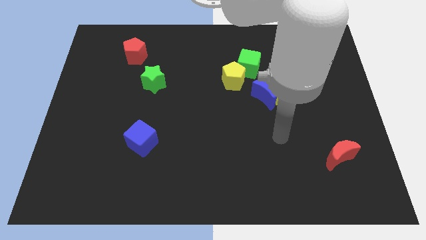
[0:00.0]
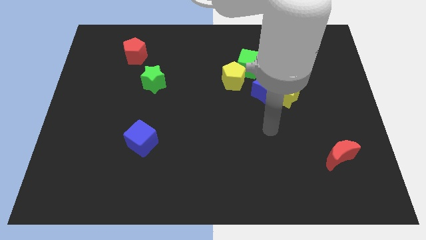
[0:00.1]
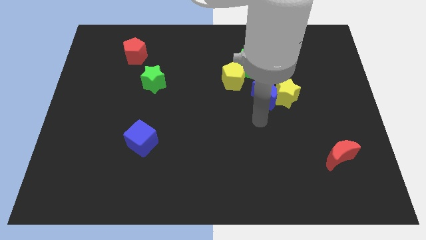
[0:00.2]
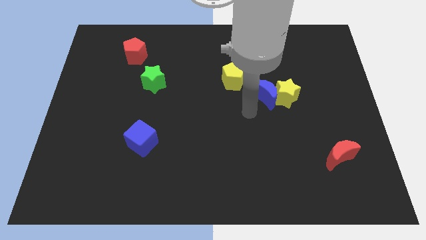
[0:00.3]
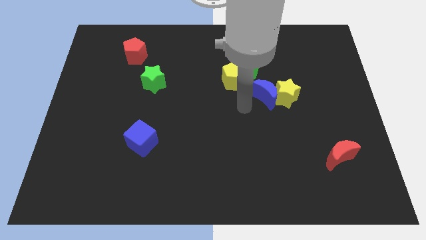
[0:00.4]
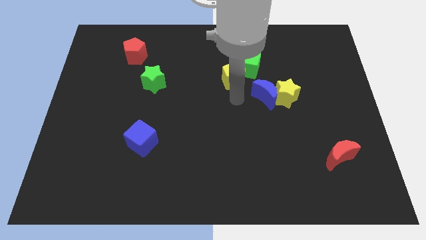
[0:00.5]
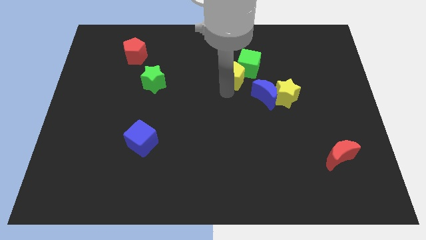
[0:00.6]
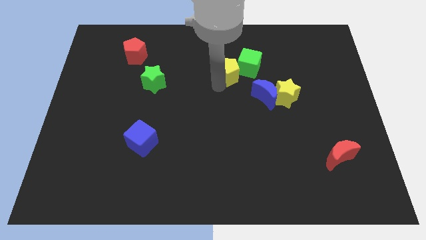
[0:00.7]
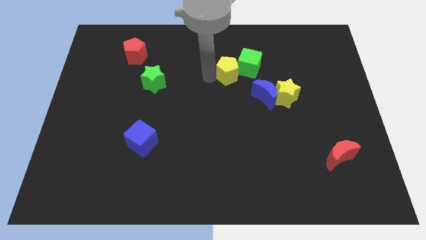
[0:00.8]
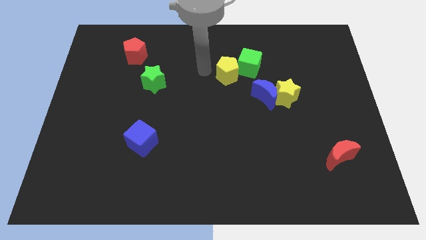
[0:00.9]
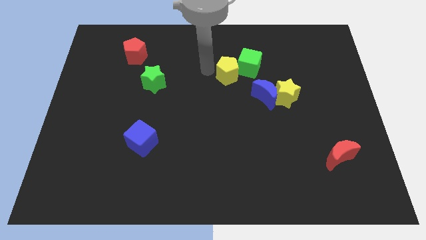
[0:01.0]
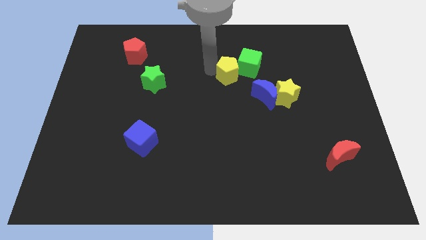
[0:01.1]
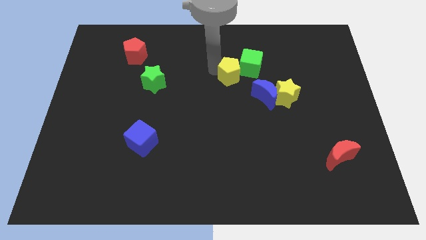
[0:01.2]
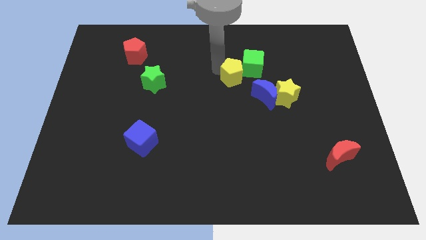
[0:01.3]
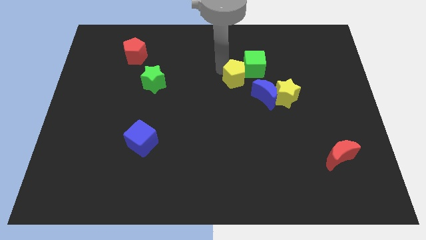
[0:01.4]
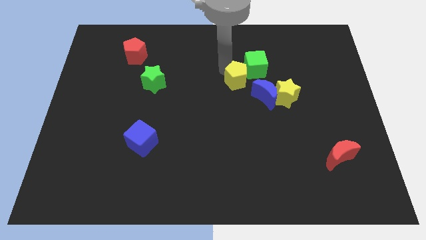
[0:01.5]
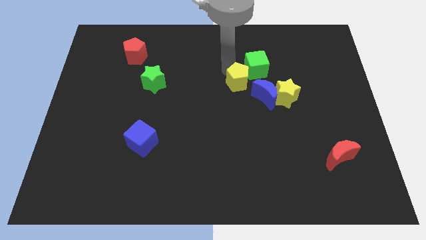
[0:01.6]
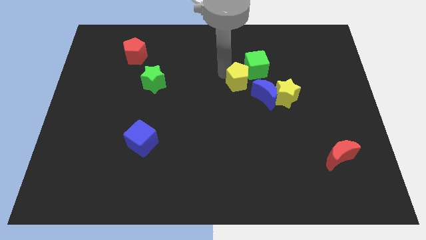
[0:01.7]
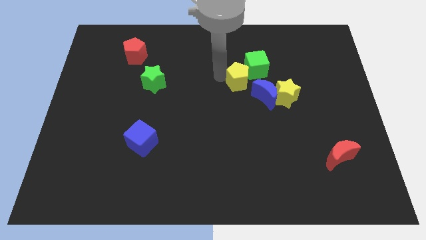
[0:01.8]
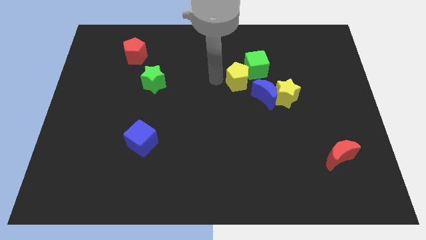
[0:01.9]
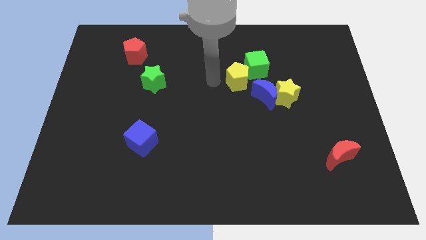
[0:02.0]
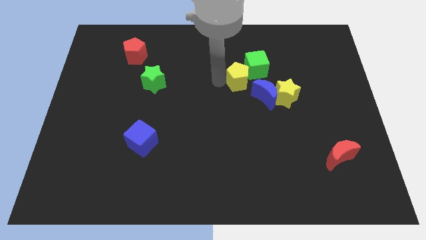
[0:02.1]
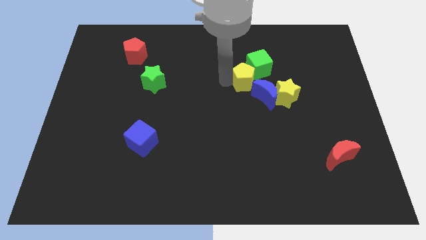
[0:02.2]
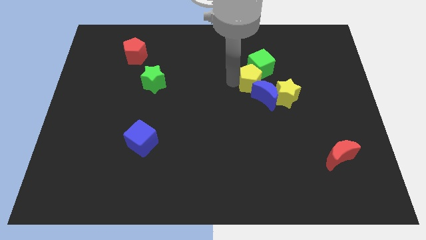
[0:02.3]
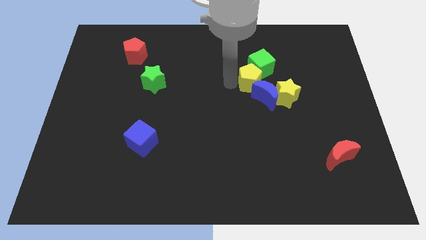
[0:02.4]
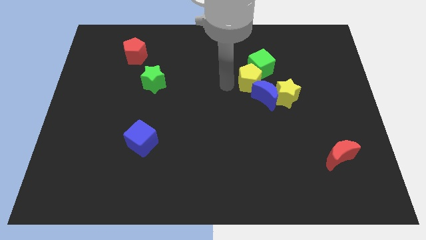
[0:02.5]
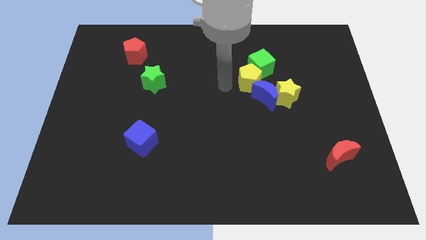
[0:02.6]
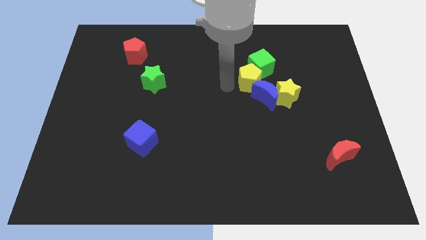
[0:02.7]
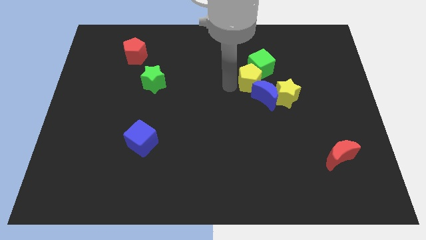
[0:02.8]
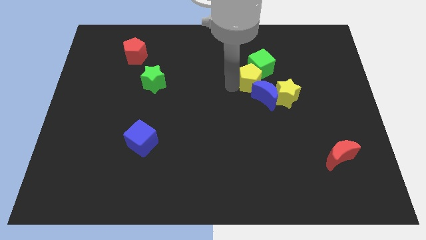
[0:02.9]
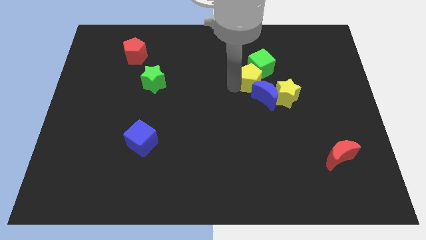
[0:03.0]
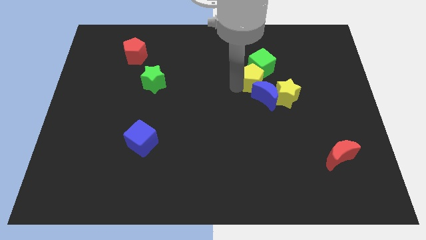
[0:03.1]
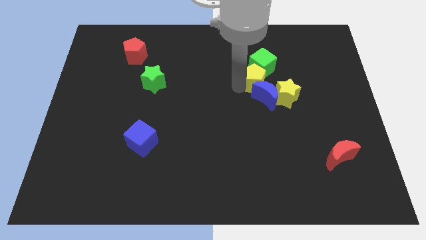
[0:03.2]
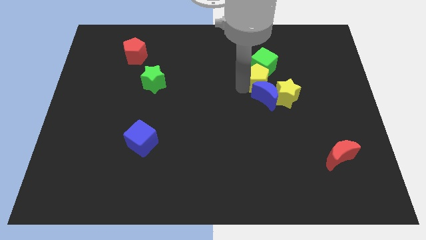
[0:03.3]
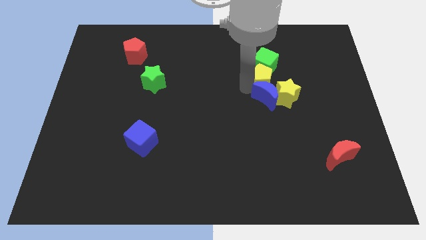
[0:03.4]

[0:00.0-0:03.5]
slightly slide the yellow pentagon to the right

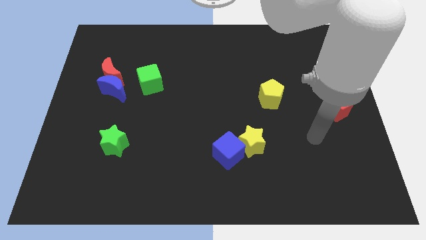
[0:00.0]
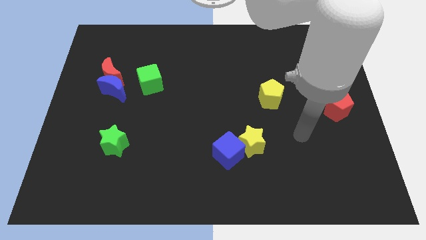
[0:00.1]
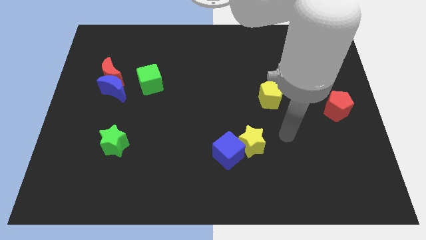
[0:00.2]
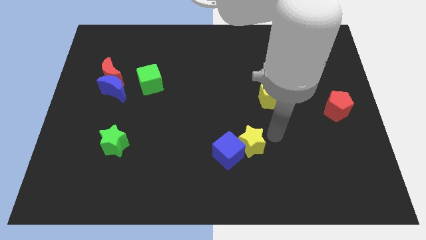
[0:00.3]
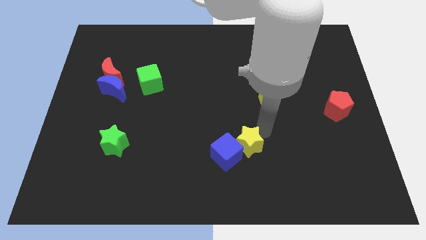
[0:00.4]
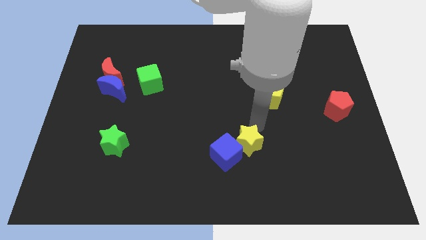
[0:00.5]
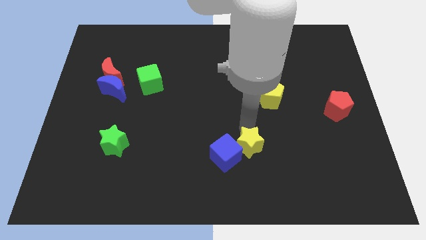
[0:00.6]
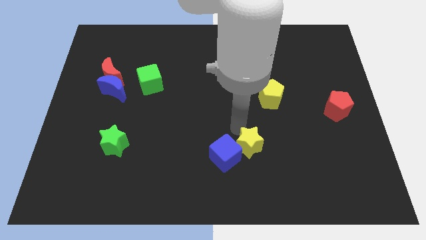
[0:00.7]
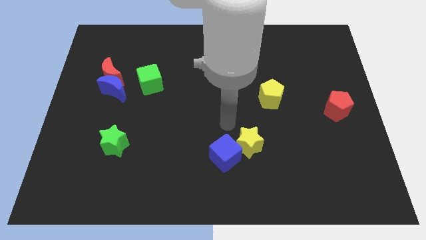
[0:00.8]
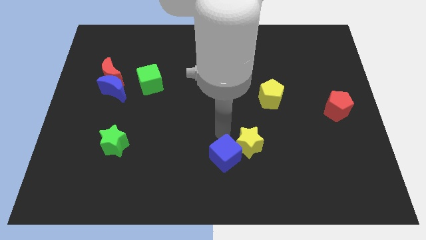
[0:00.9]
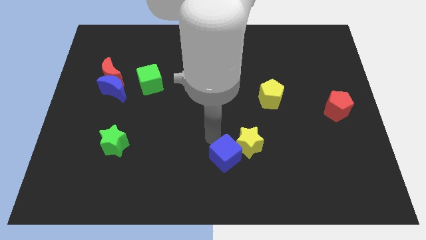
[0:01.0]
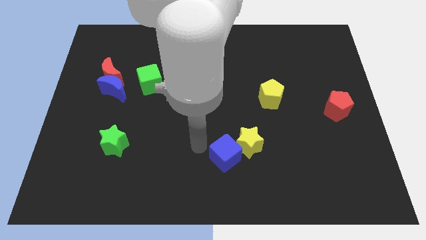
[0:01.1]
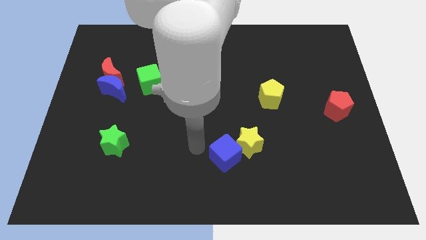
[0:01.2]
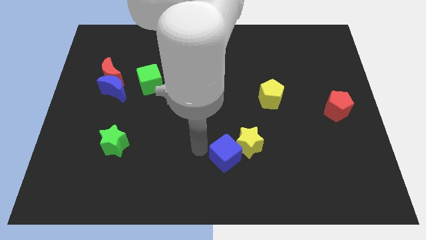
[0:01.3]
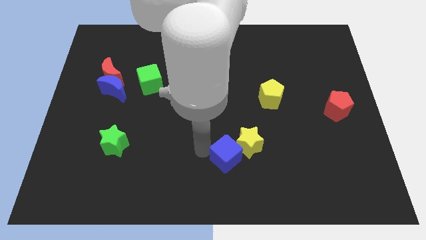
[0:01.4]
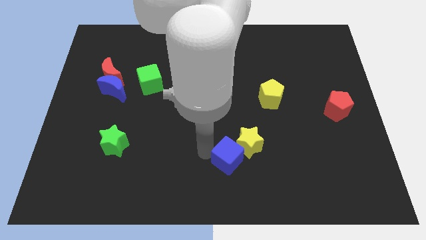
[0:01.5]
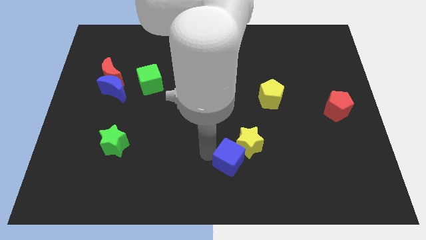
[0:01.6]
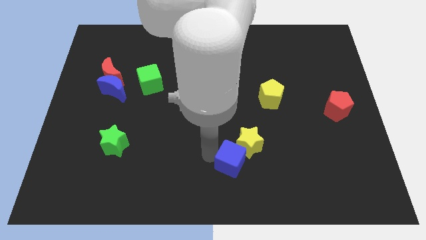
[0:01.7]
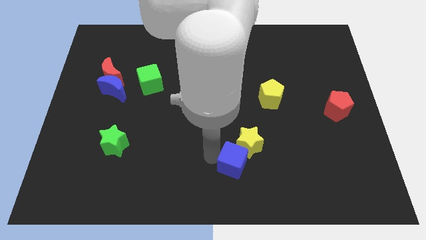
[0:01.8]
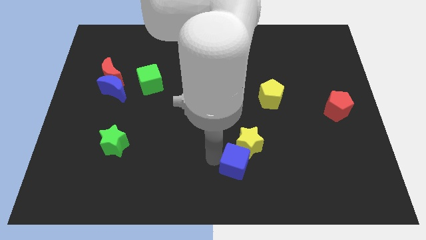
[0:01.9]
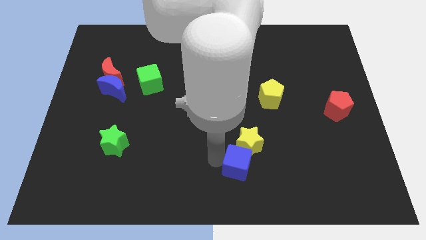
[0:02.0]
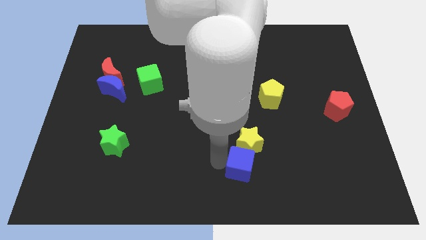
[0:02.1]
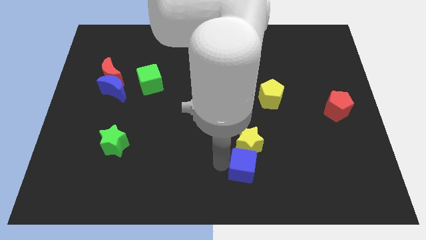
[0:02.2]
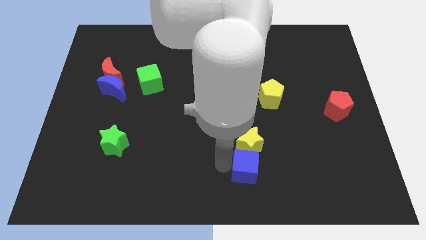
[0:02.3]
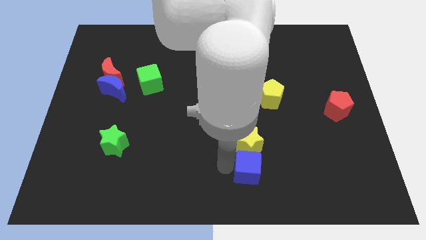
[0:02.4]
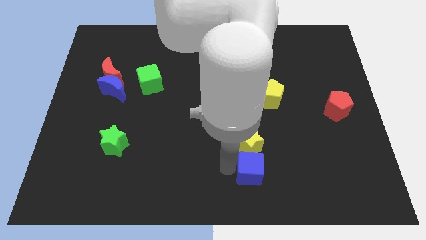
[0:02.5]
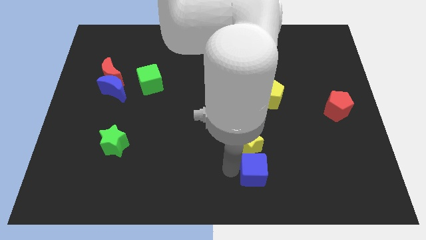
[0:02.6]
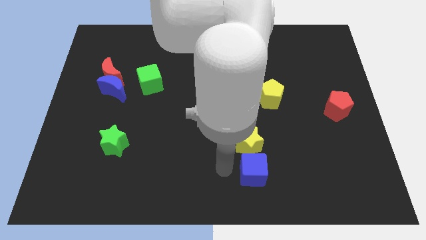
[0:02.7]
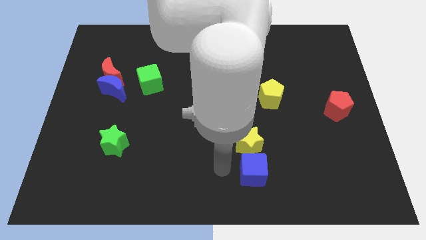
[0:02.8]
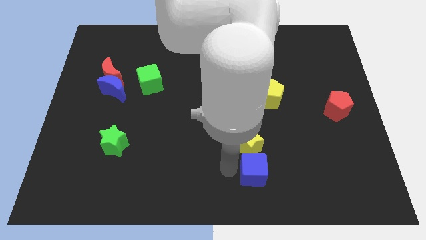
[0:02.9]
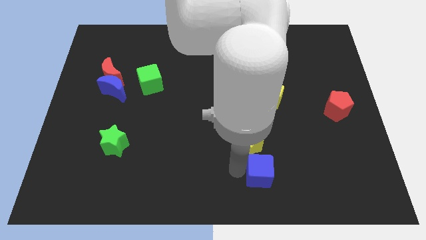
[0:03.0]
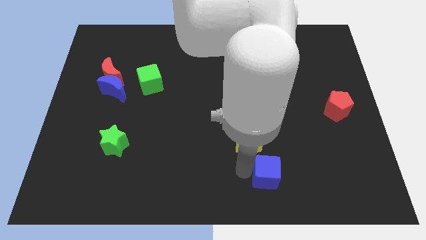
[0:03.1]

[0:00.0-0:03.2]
move the blue cube a bit right

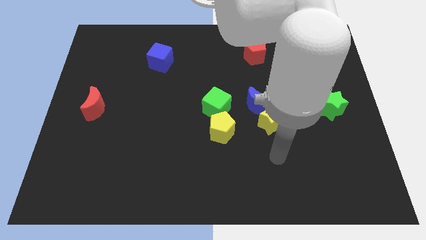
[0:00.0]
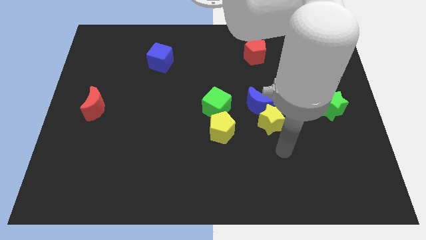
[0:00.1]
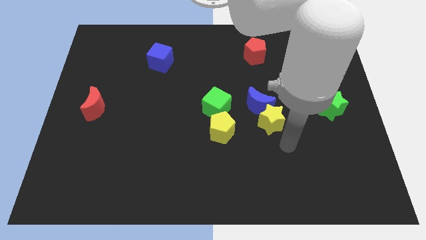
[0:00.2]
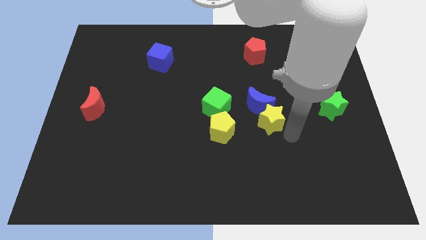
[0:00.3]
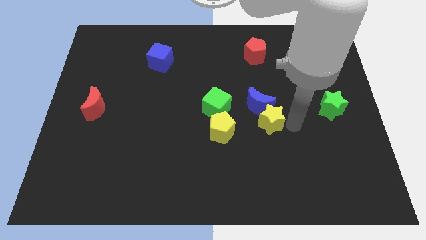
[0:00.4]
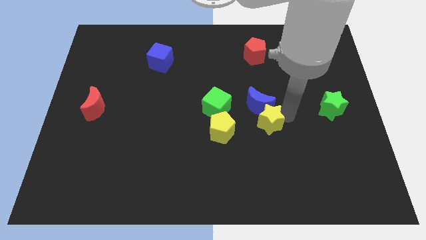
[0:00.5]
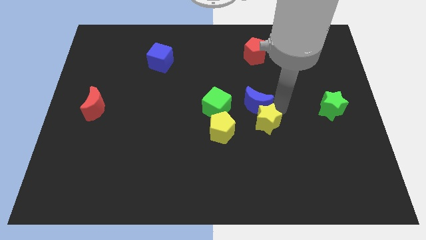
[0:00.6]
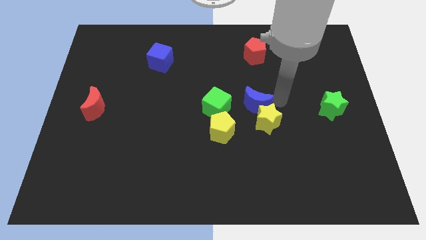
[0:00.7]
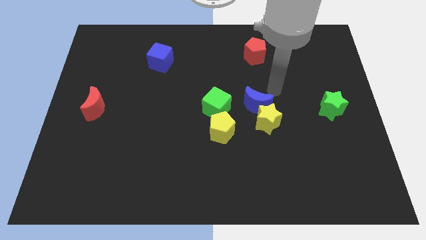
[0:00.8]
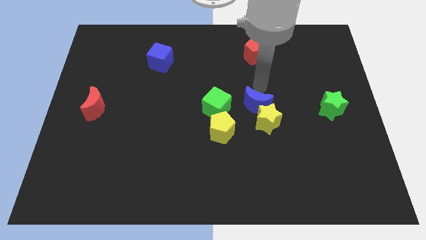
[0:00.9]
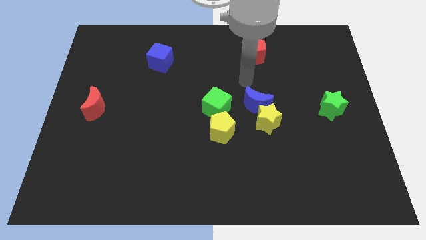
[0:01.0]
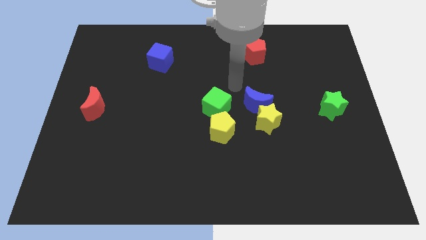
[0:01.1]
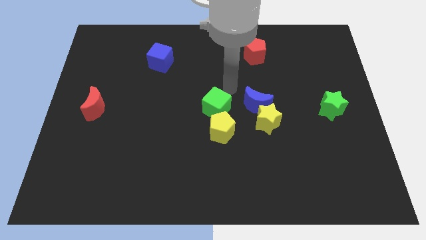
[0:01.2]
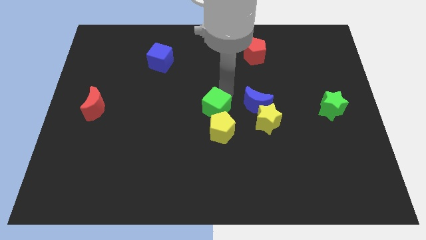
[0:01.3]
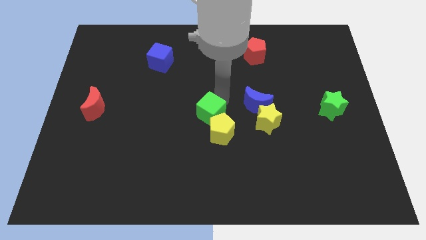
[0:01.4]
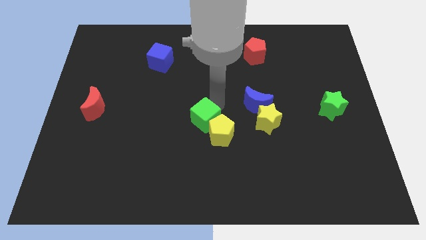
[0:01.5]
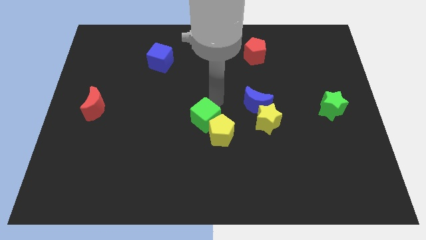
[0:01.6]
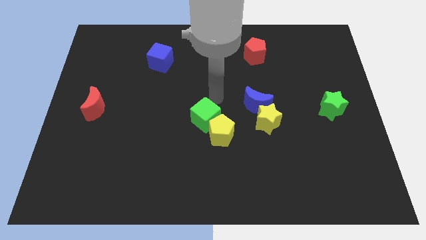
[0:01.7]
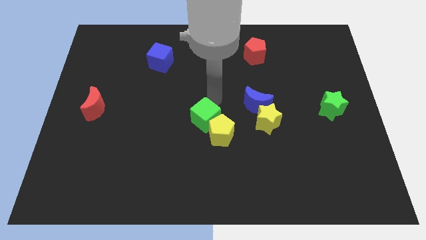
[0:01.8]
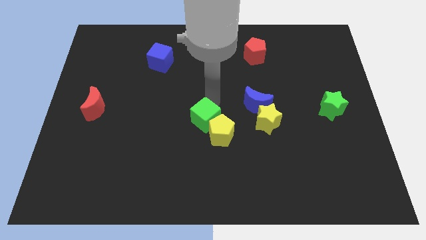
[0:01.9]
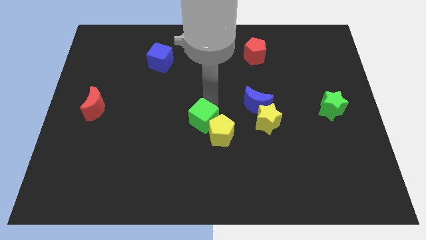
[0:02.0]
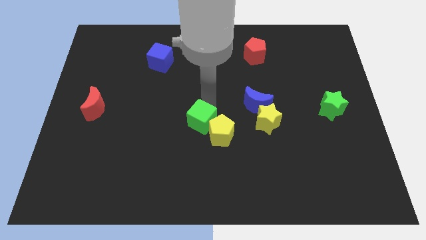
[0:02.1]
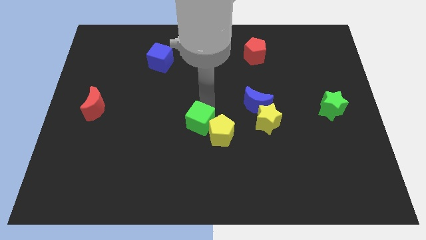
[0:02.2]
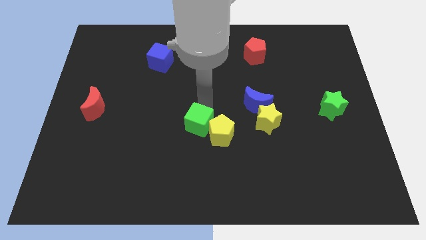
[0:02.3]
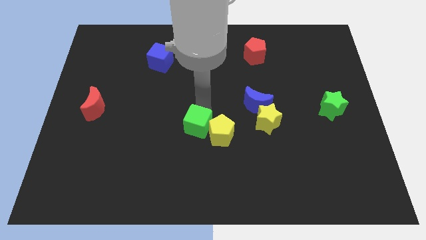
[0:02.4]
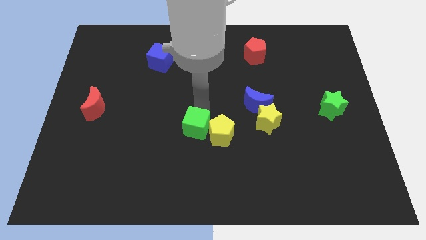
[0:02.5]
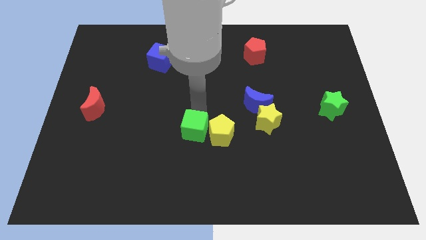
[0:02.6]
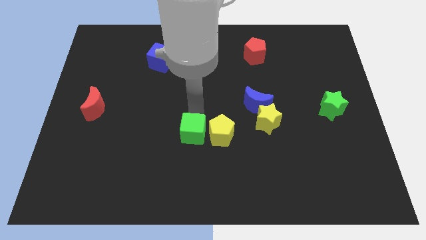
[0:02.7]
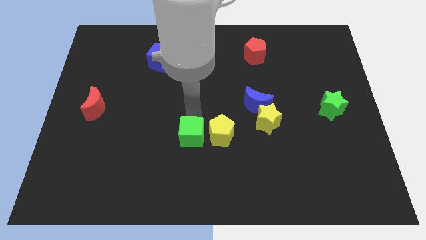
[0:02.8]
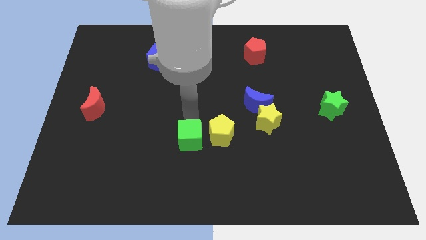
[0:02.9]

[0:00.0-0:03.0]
slightly slide the green cube down
